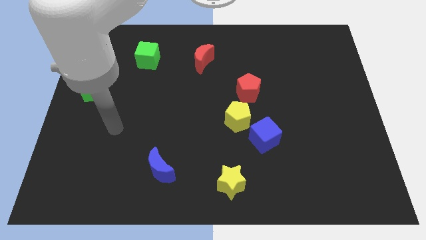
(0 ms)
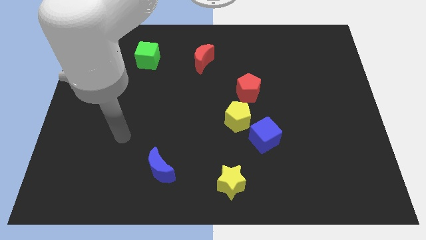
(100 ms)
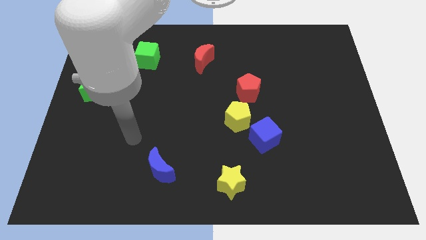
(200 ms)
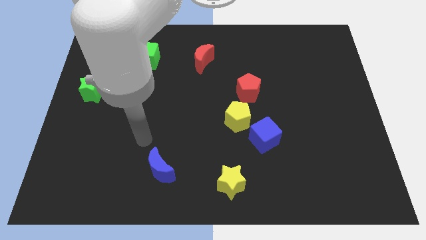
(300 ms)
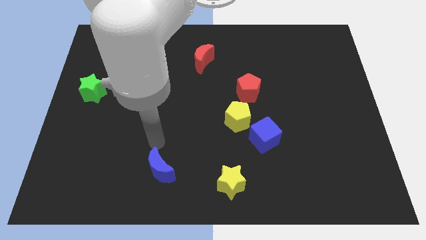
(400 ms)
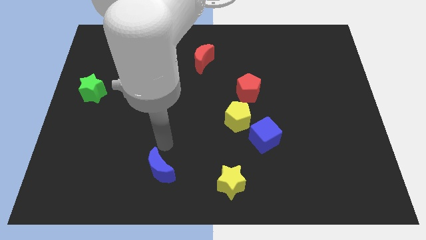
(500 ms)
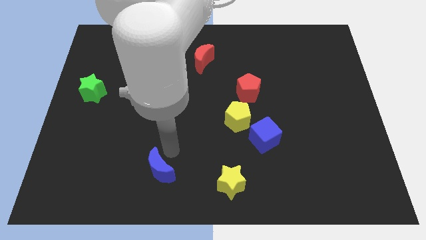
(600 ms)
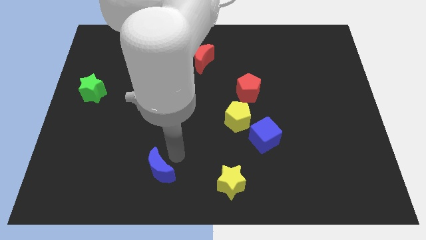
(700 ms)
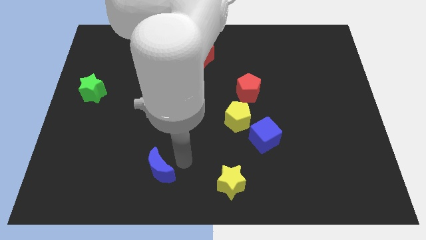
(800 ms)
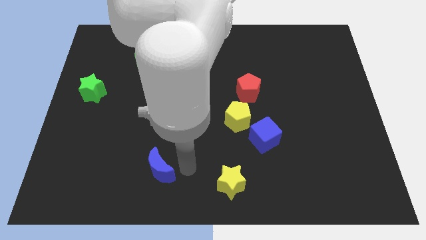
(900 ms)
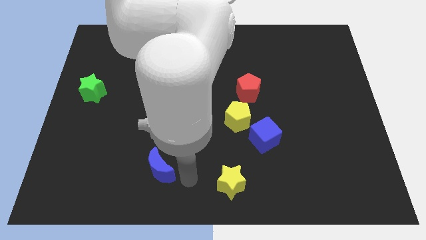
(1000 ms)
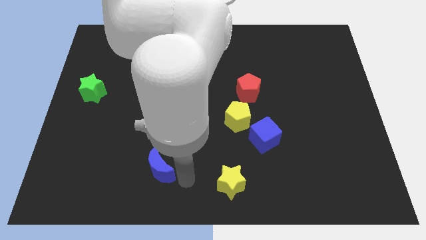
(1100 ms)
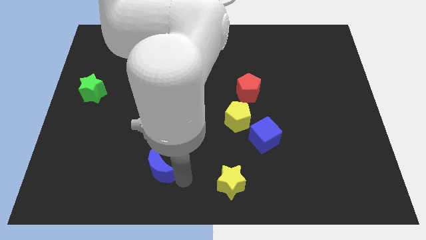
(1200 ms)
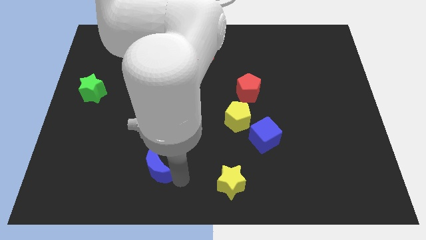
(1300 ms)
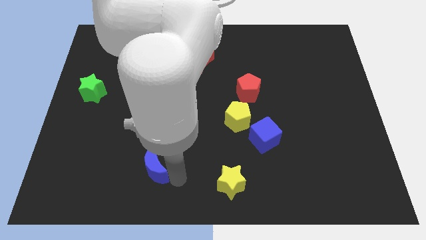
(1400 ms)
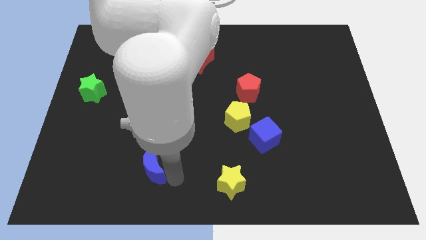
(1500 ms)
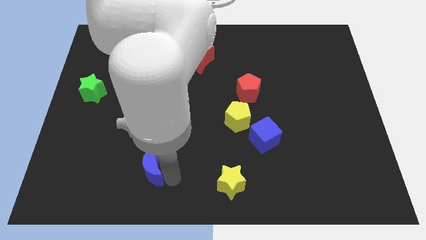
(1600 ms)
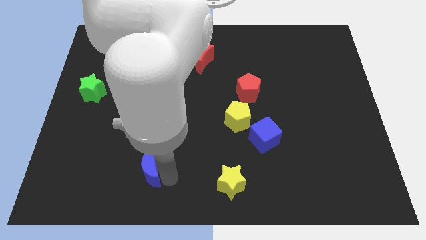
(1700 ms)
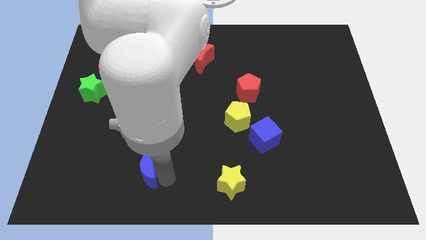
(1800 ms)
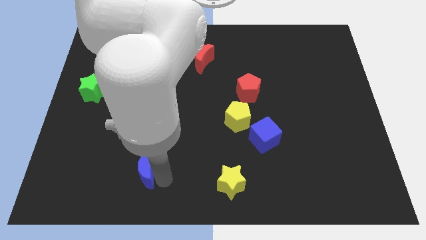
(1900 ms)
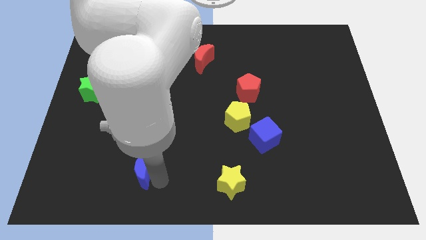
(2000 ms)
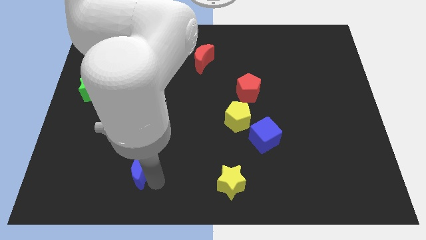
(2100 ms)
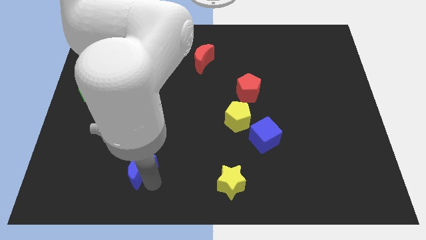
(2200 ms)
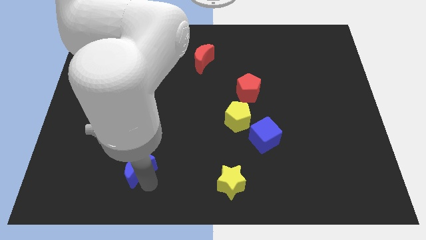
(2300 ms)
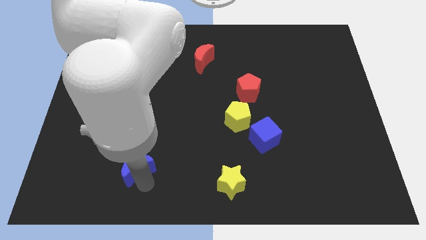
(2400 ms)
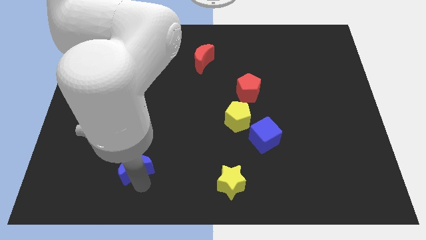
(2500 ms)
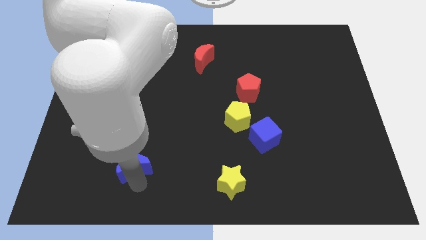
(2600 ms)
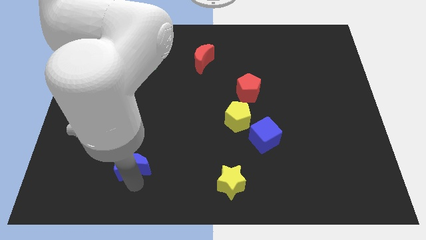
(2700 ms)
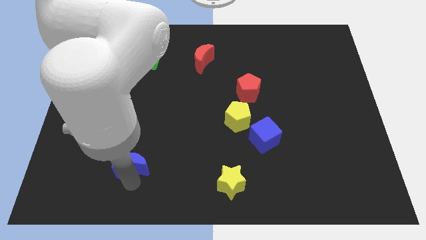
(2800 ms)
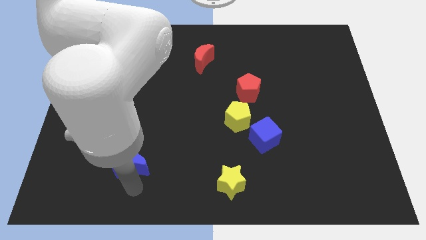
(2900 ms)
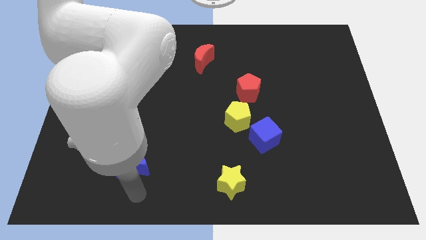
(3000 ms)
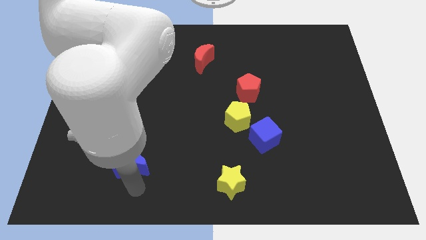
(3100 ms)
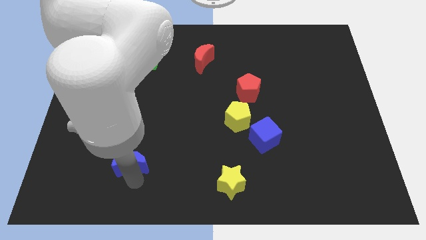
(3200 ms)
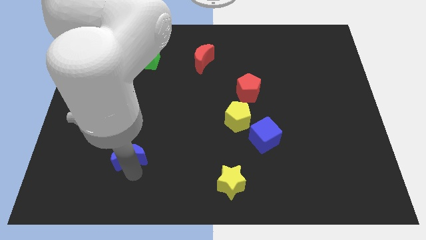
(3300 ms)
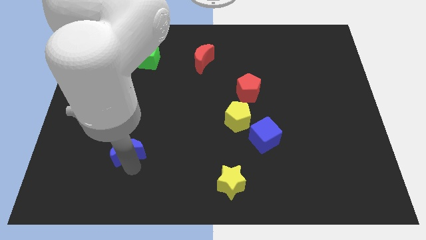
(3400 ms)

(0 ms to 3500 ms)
slide the blue moon diagonally upwards and to the left a little

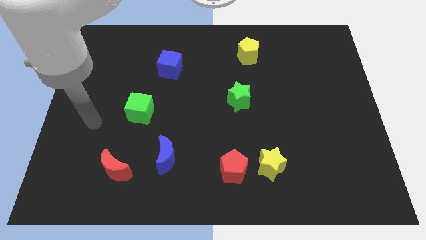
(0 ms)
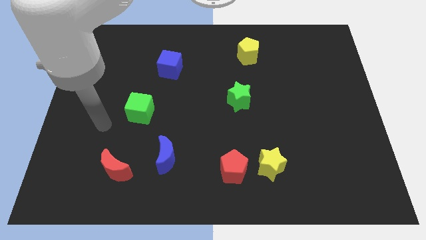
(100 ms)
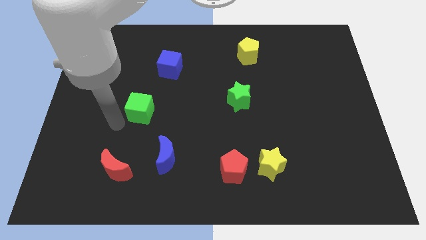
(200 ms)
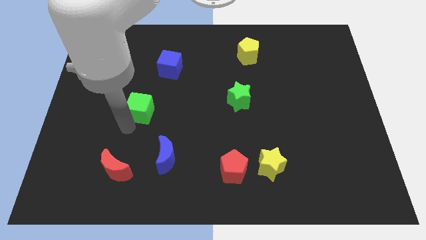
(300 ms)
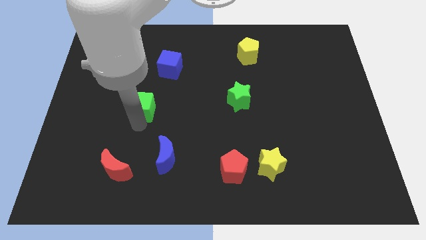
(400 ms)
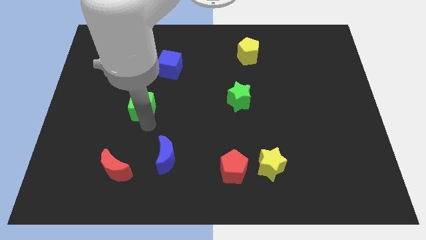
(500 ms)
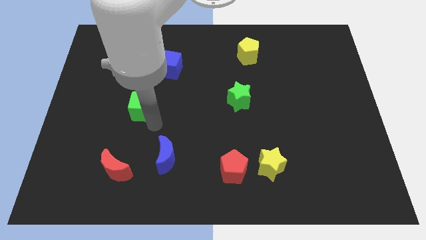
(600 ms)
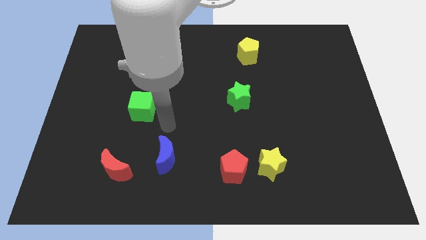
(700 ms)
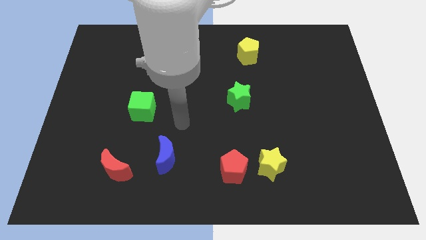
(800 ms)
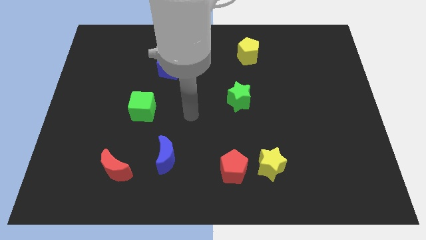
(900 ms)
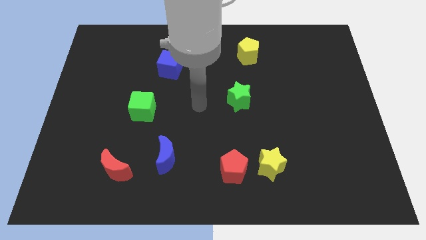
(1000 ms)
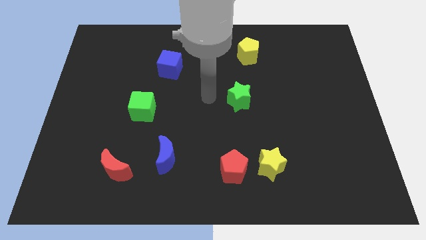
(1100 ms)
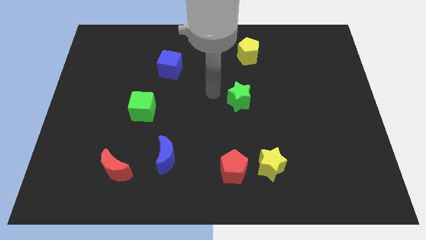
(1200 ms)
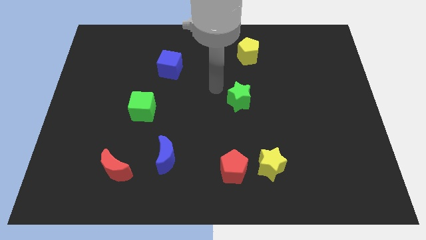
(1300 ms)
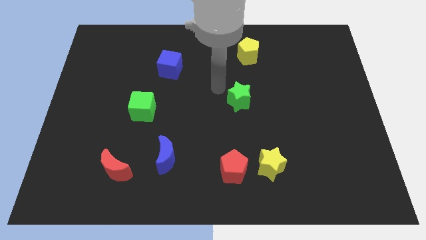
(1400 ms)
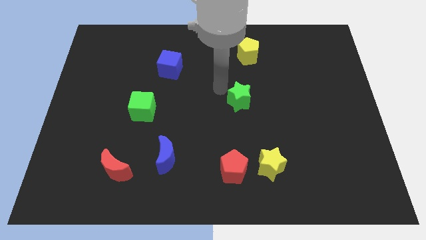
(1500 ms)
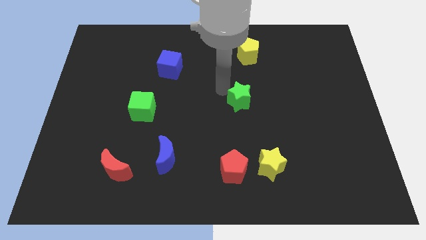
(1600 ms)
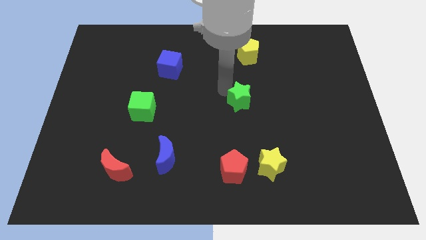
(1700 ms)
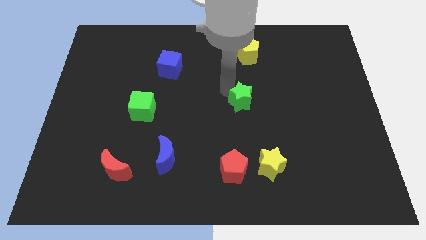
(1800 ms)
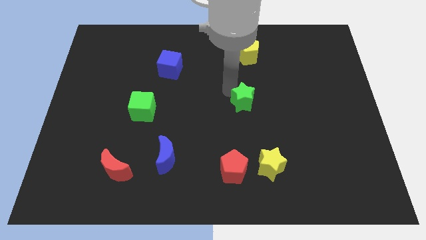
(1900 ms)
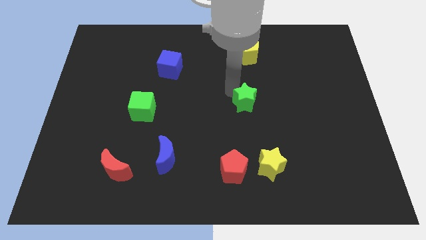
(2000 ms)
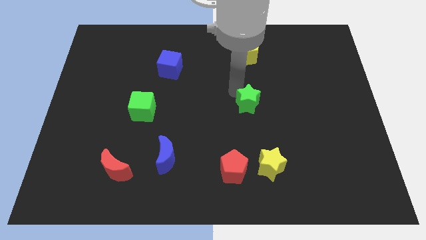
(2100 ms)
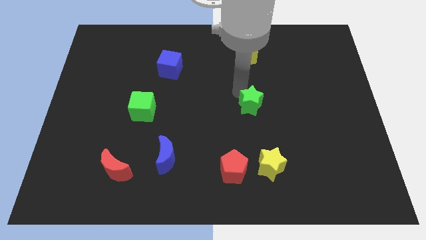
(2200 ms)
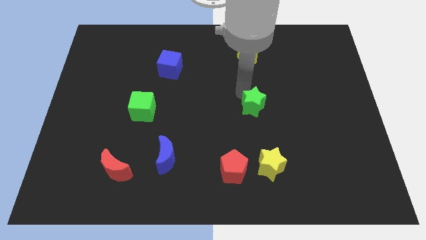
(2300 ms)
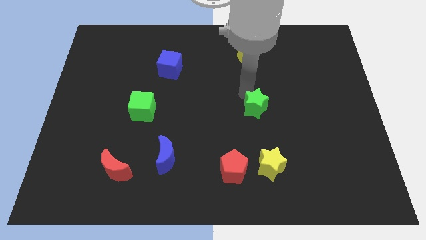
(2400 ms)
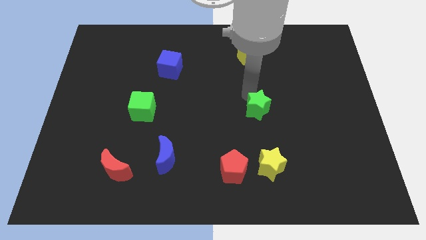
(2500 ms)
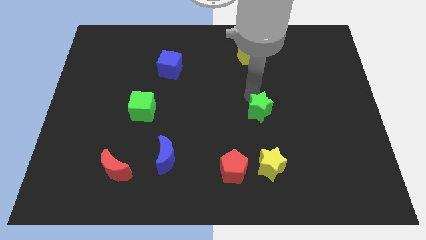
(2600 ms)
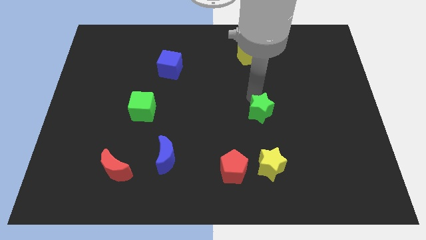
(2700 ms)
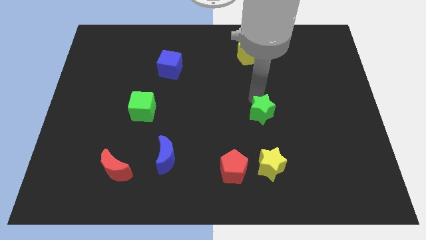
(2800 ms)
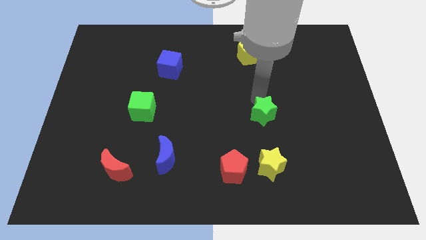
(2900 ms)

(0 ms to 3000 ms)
move the green star diagonally down and to the right a little bit

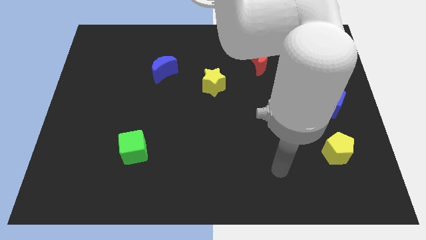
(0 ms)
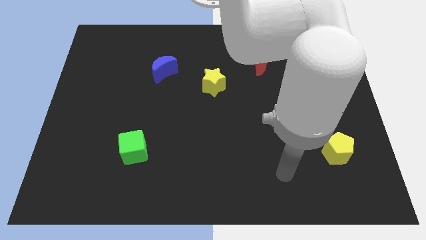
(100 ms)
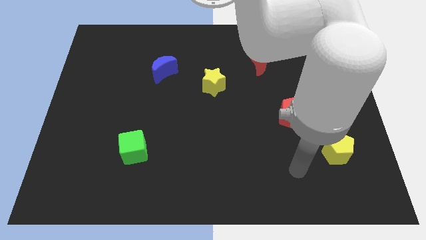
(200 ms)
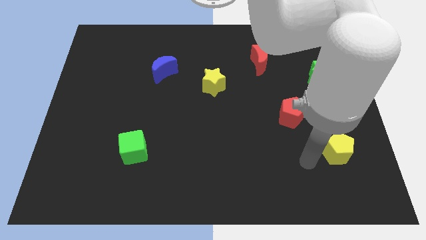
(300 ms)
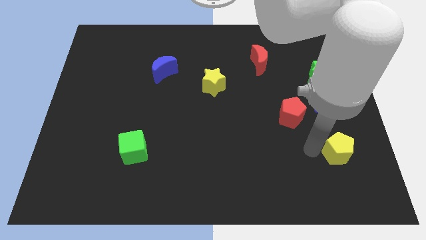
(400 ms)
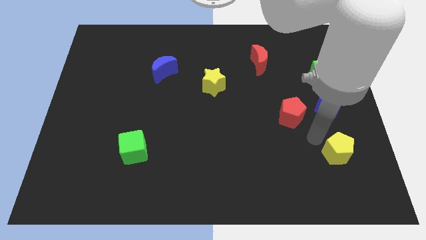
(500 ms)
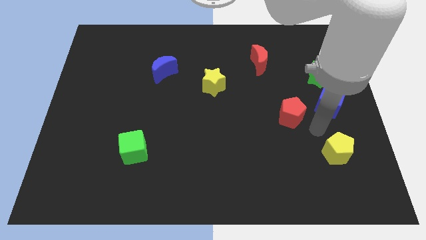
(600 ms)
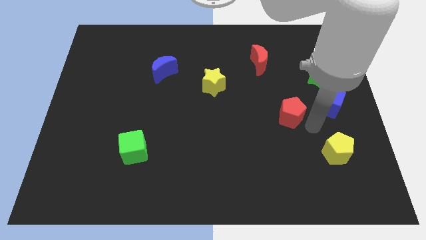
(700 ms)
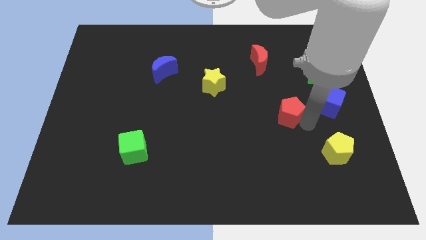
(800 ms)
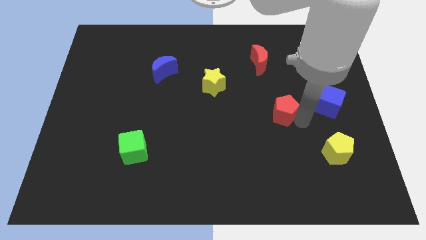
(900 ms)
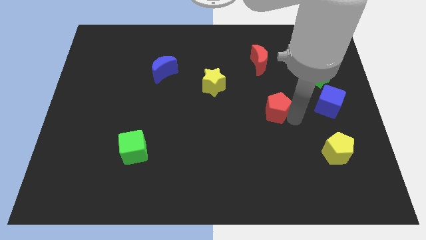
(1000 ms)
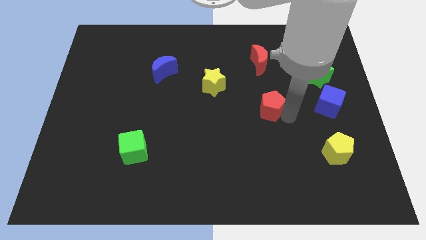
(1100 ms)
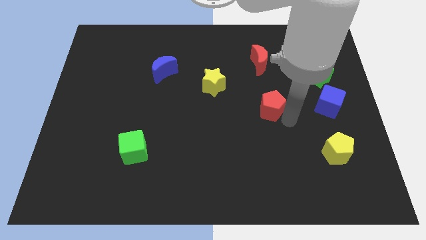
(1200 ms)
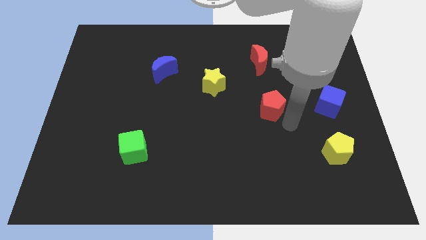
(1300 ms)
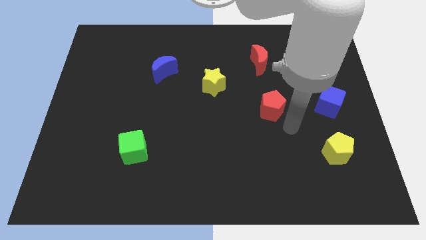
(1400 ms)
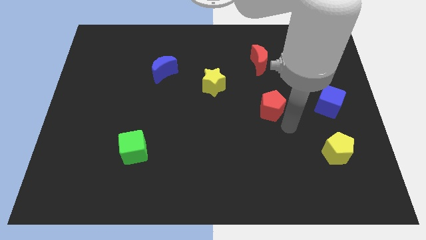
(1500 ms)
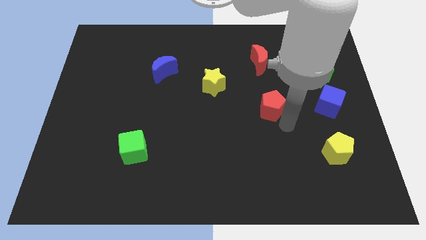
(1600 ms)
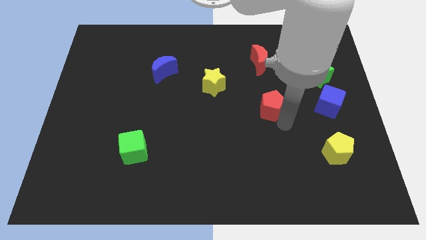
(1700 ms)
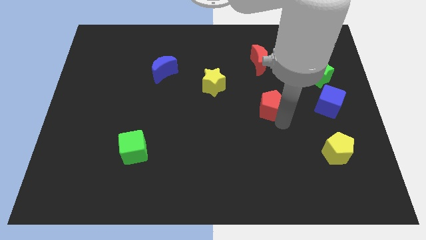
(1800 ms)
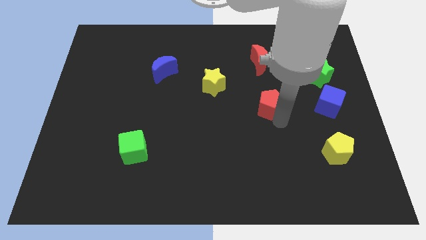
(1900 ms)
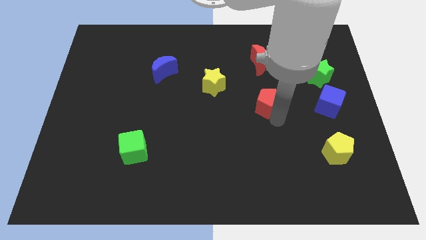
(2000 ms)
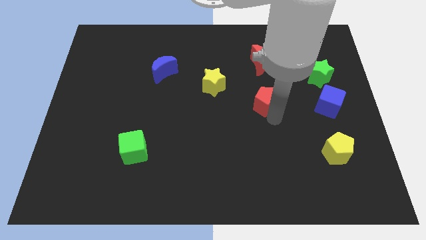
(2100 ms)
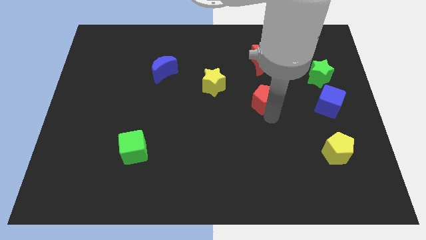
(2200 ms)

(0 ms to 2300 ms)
push the red pentagon up and to the left slightly
